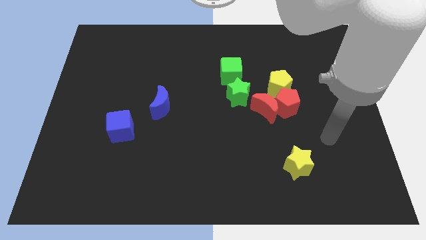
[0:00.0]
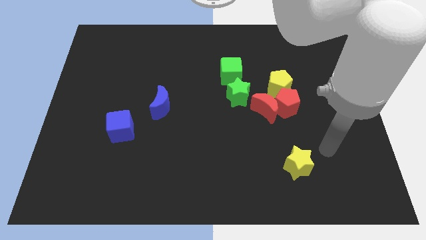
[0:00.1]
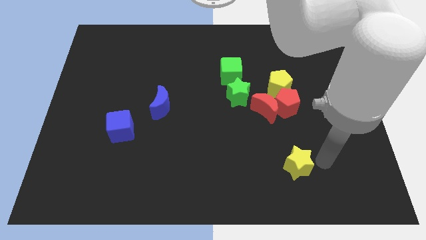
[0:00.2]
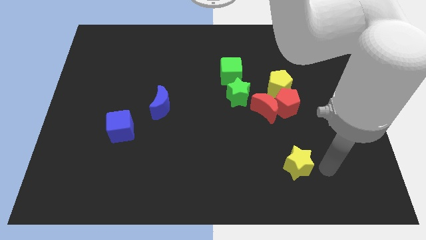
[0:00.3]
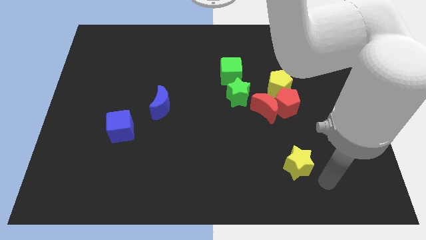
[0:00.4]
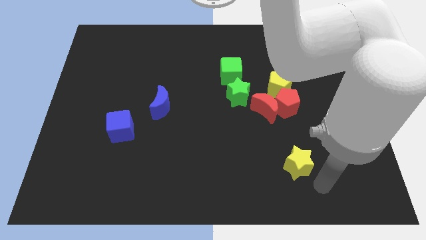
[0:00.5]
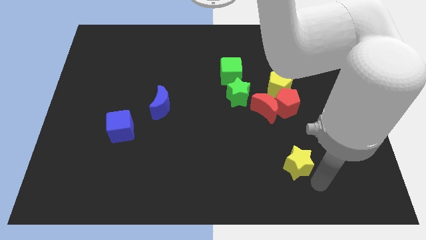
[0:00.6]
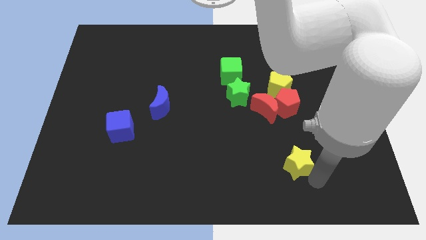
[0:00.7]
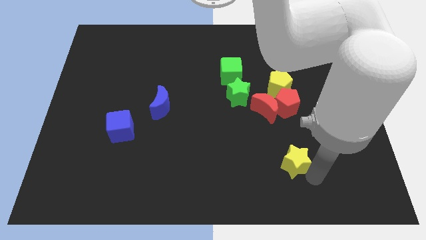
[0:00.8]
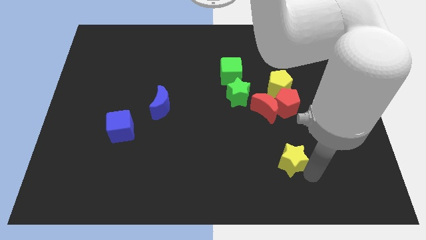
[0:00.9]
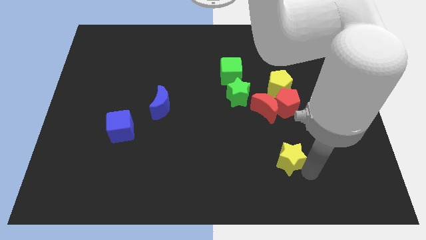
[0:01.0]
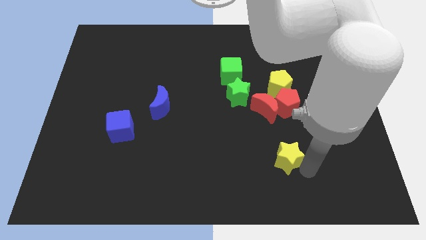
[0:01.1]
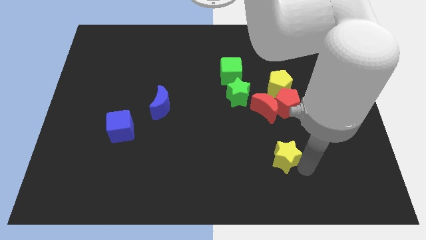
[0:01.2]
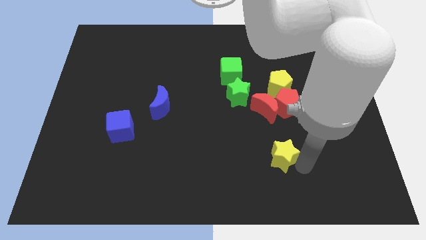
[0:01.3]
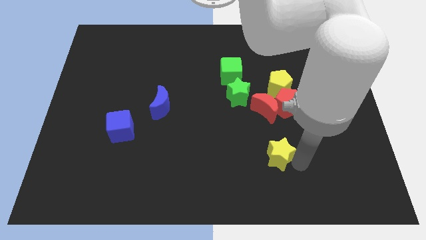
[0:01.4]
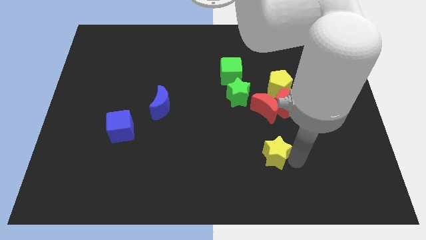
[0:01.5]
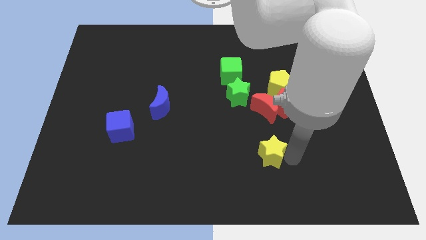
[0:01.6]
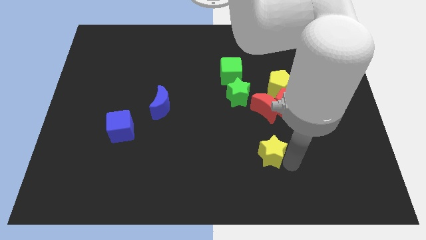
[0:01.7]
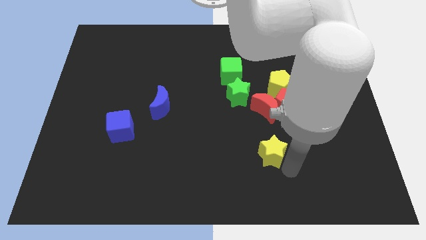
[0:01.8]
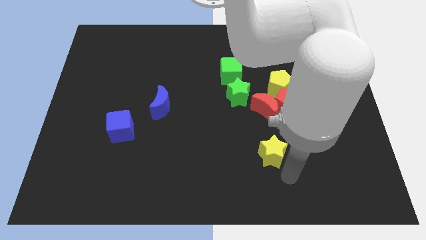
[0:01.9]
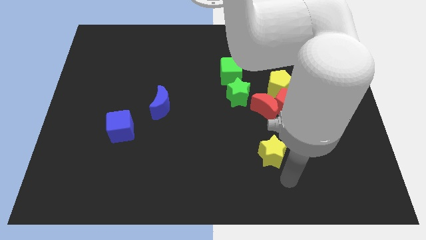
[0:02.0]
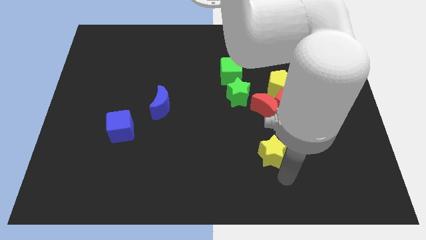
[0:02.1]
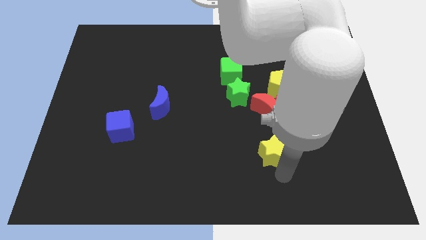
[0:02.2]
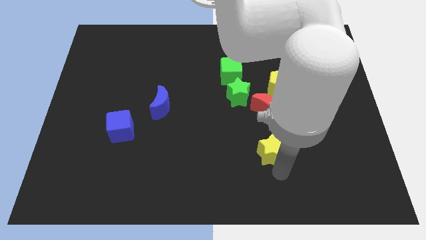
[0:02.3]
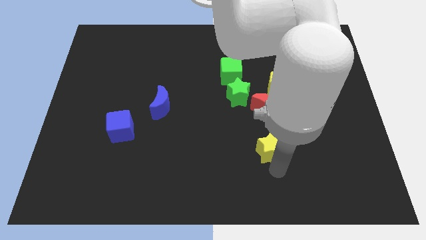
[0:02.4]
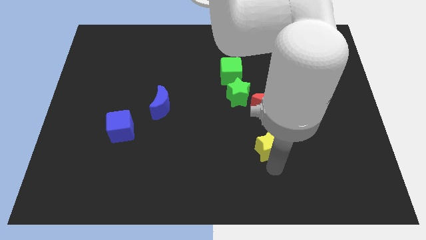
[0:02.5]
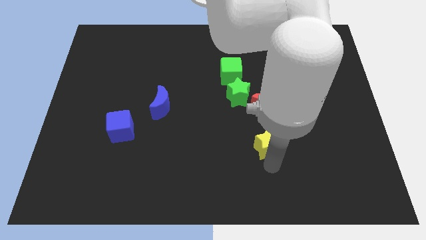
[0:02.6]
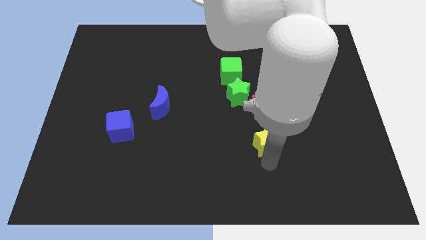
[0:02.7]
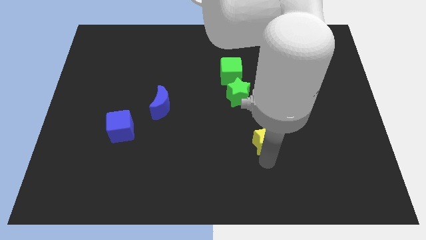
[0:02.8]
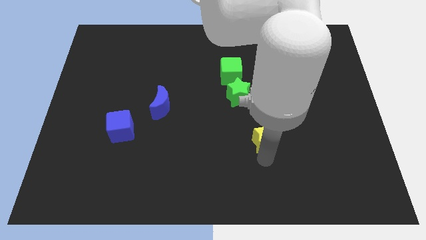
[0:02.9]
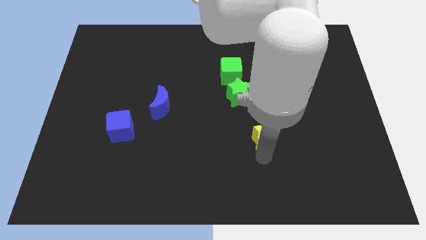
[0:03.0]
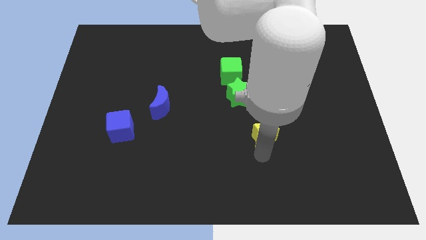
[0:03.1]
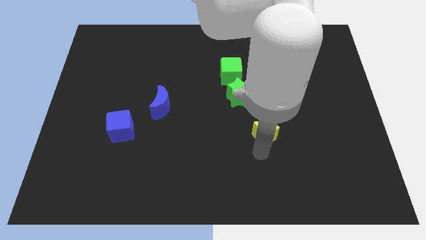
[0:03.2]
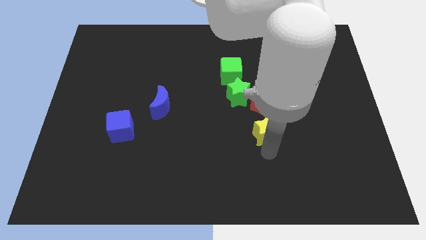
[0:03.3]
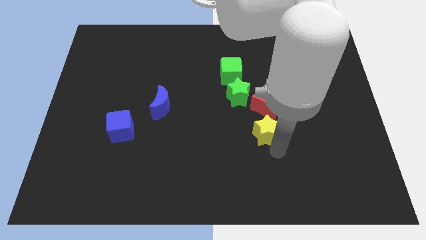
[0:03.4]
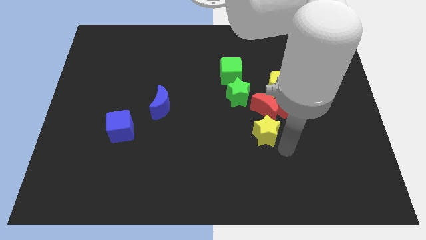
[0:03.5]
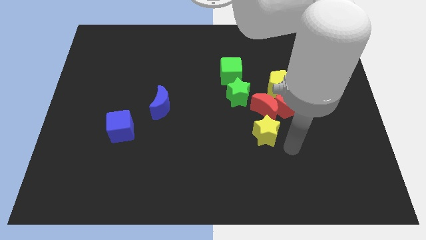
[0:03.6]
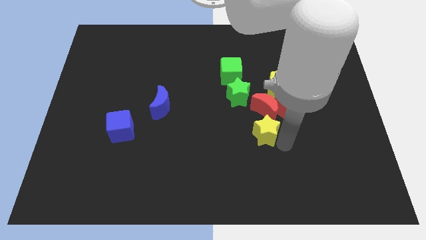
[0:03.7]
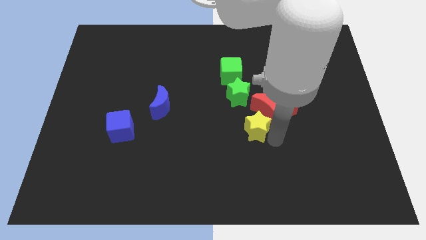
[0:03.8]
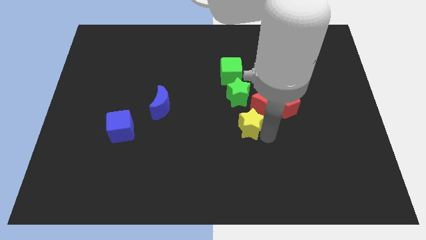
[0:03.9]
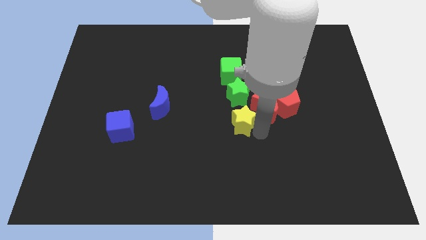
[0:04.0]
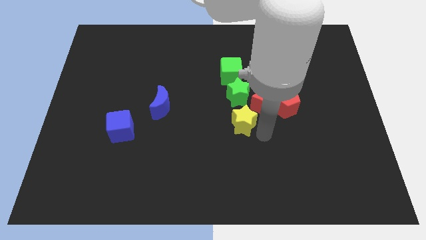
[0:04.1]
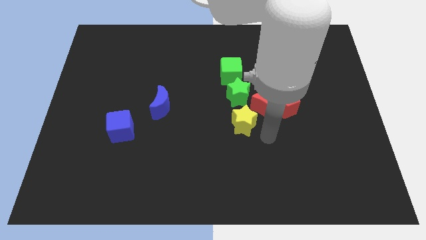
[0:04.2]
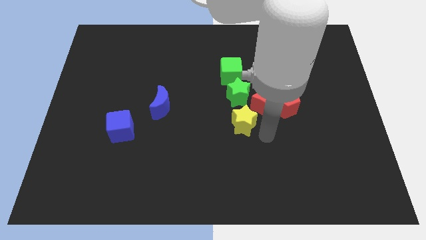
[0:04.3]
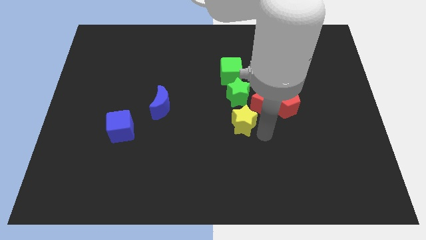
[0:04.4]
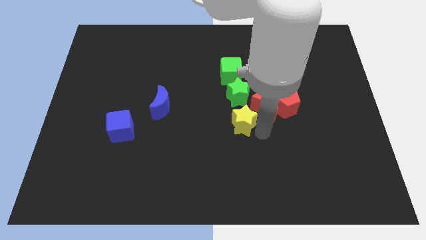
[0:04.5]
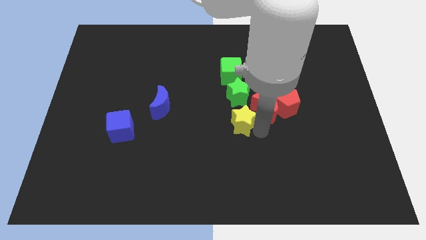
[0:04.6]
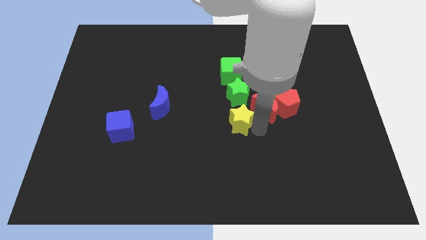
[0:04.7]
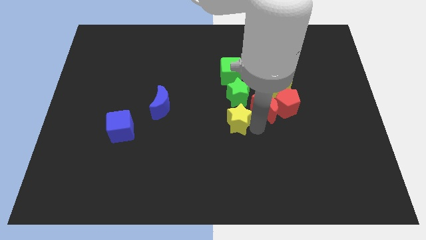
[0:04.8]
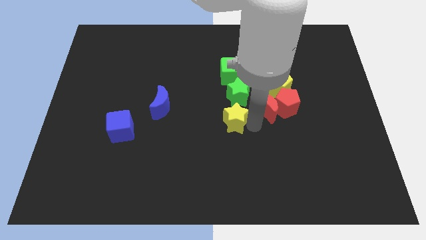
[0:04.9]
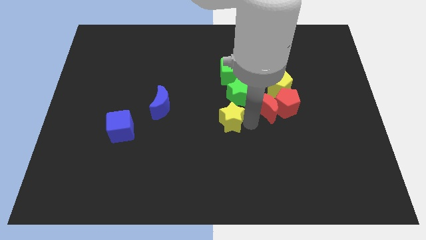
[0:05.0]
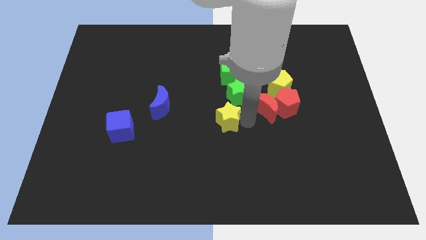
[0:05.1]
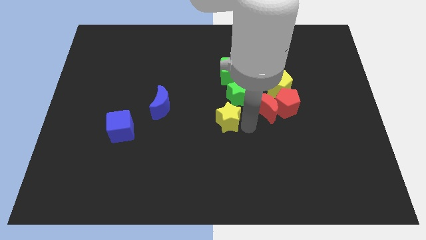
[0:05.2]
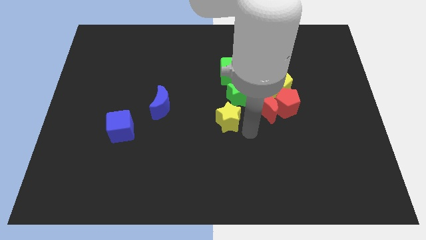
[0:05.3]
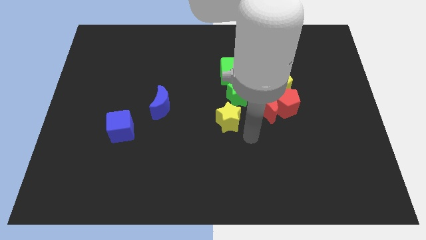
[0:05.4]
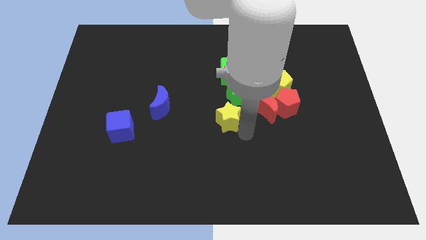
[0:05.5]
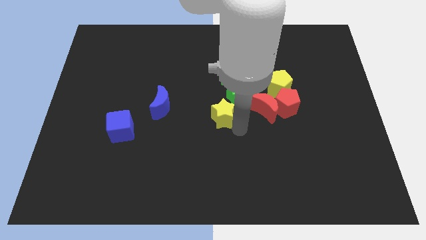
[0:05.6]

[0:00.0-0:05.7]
move the yellow star to the right side of the blue moon

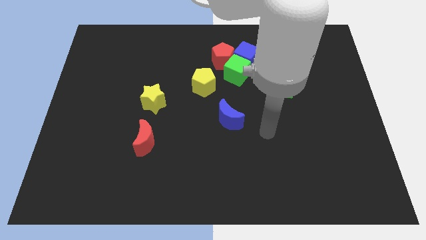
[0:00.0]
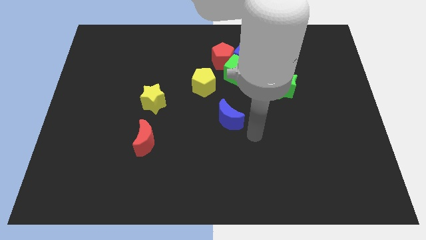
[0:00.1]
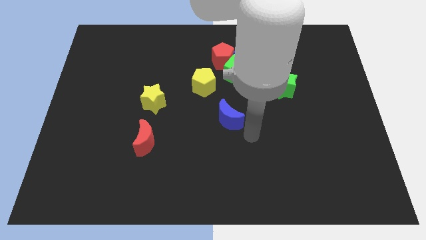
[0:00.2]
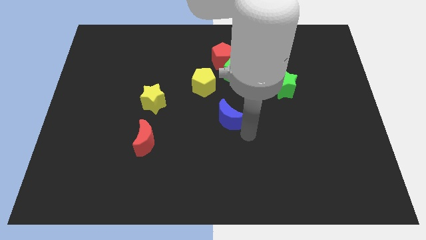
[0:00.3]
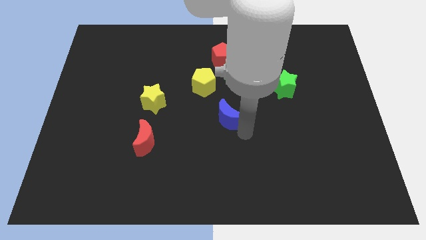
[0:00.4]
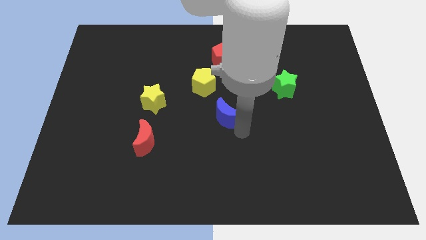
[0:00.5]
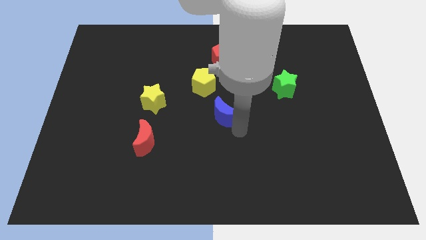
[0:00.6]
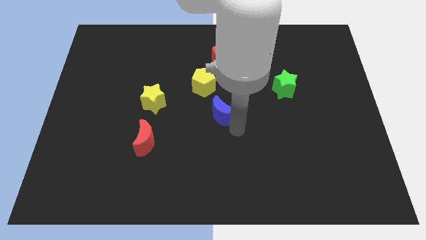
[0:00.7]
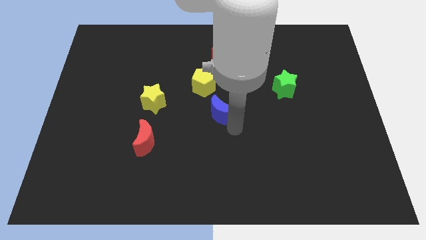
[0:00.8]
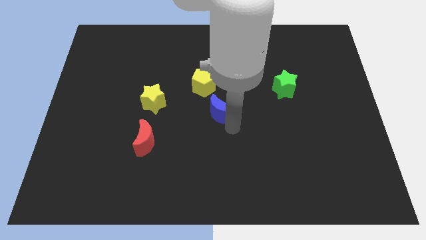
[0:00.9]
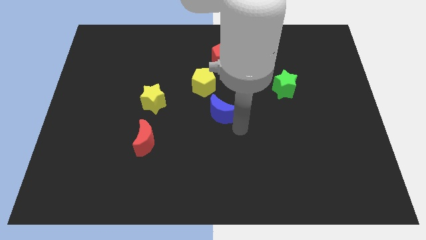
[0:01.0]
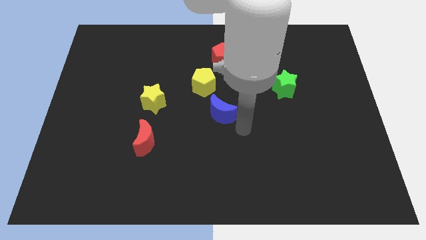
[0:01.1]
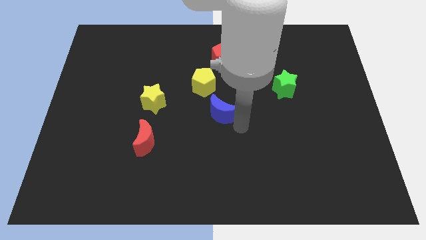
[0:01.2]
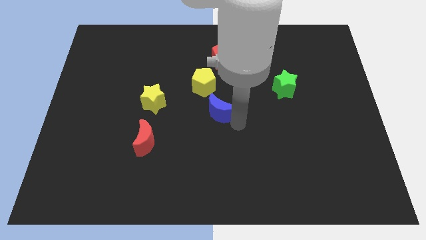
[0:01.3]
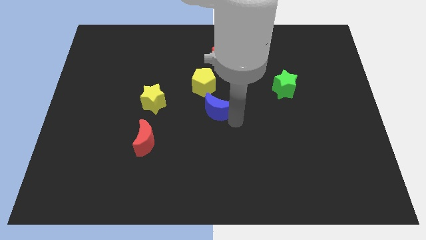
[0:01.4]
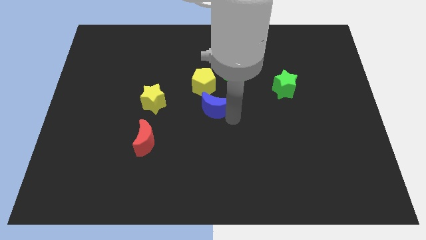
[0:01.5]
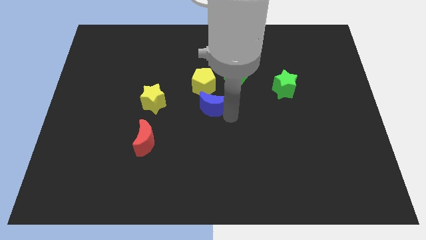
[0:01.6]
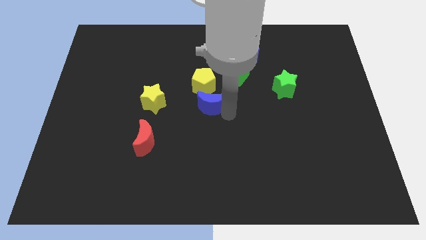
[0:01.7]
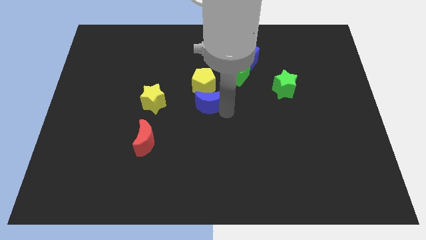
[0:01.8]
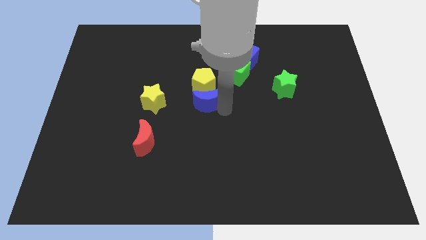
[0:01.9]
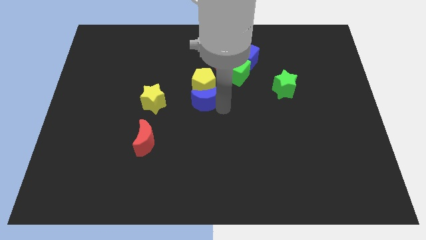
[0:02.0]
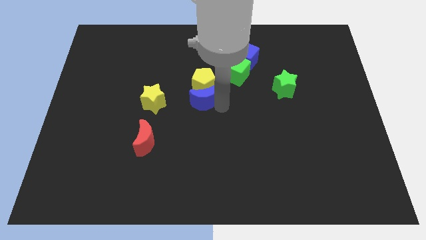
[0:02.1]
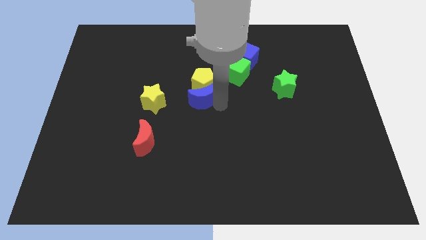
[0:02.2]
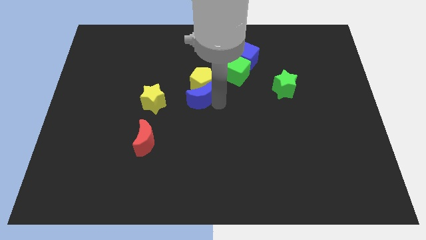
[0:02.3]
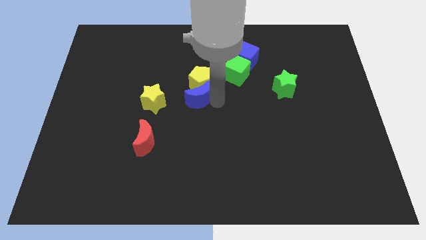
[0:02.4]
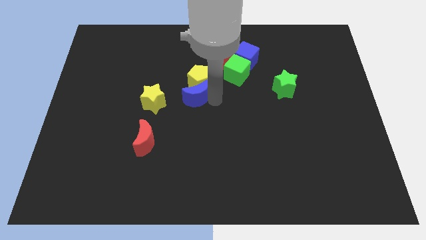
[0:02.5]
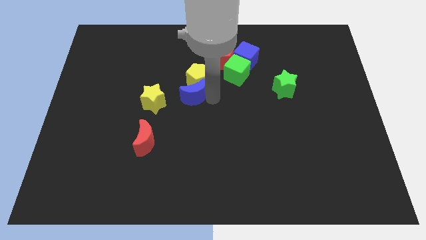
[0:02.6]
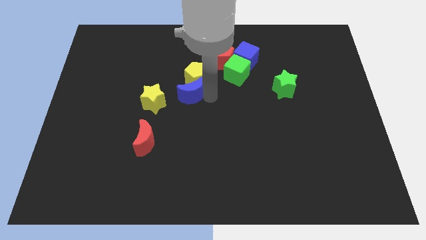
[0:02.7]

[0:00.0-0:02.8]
move the blue moon to the top right of the yellow star
